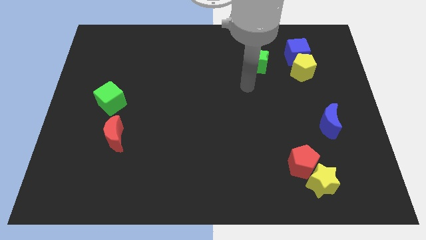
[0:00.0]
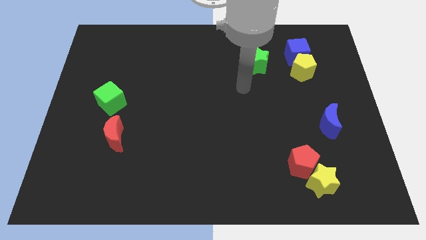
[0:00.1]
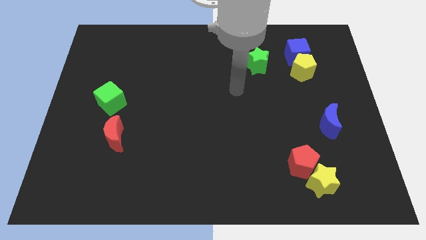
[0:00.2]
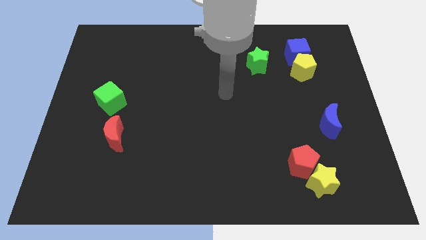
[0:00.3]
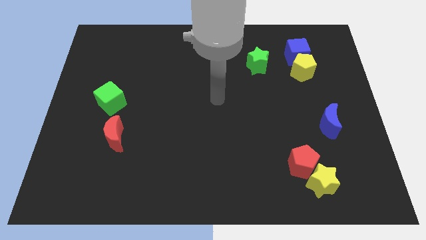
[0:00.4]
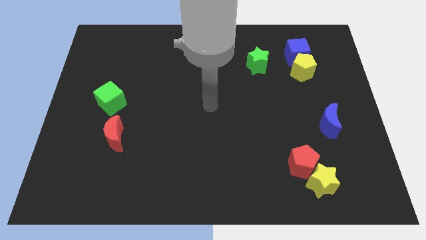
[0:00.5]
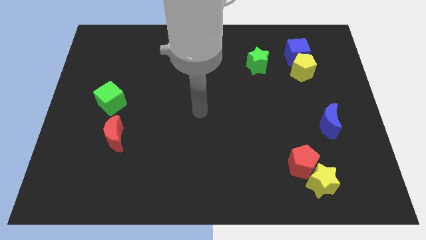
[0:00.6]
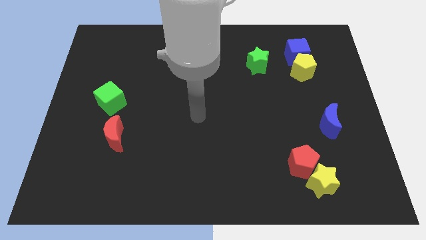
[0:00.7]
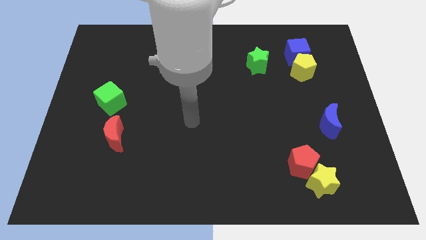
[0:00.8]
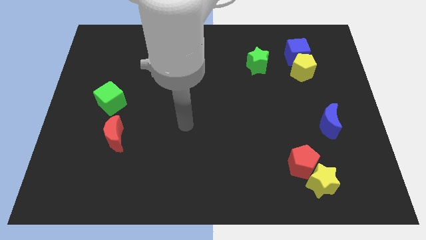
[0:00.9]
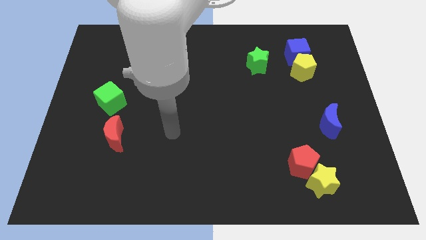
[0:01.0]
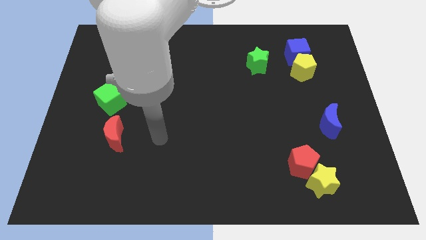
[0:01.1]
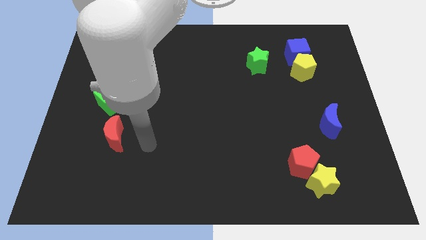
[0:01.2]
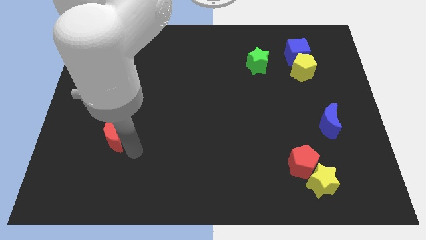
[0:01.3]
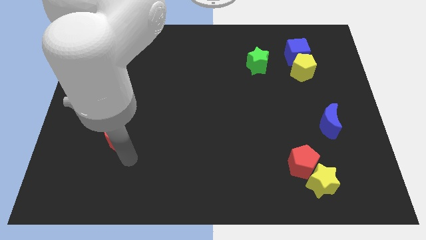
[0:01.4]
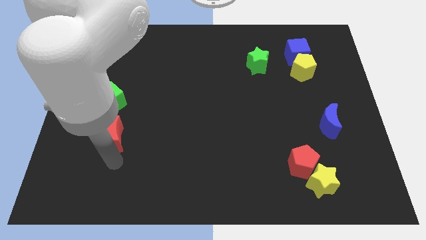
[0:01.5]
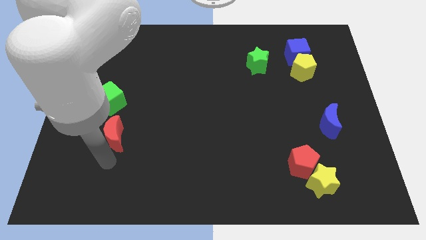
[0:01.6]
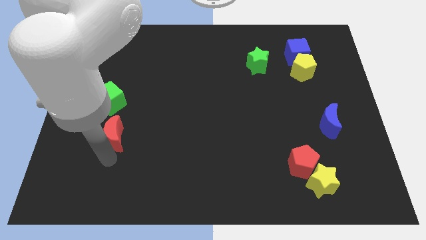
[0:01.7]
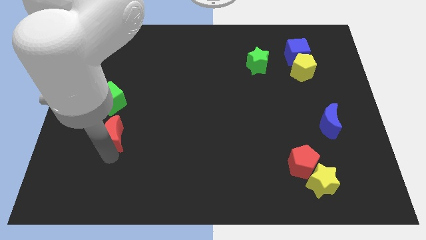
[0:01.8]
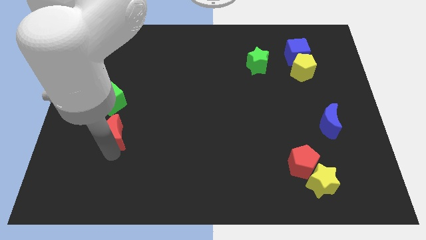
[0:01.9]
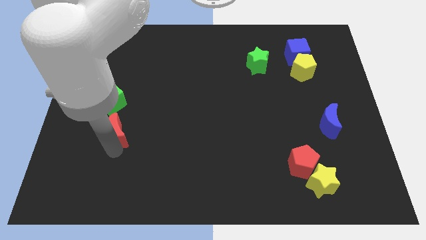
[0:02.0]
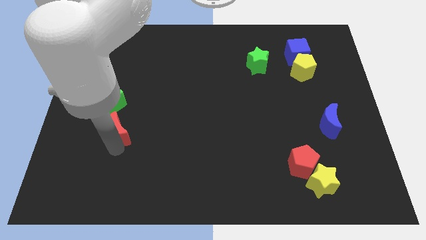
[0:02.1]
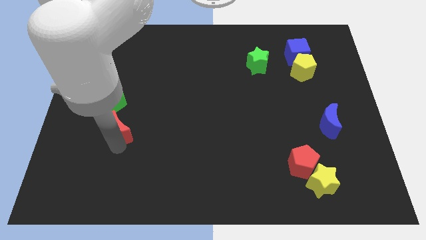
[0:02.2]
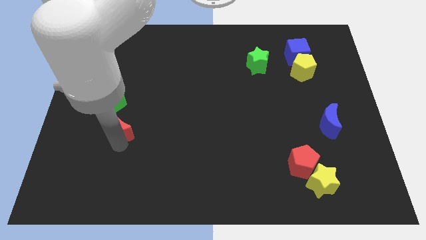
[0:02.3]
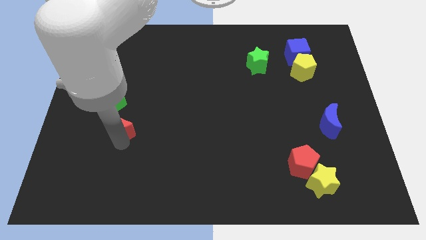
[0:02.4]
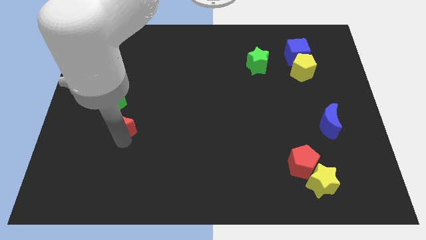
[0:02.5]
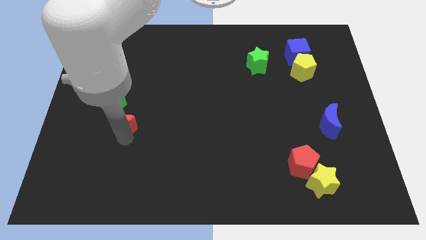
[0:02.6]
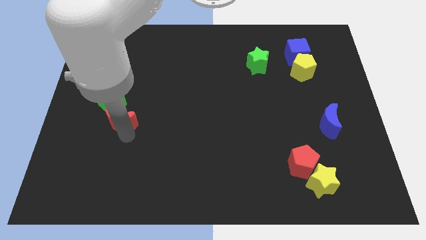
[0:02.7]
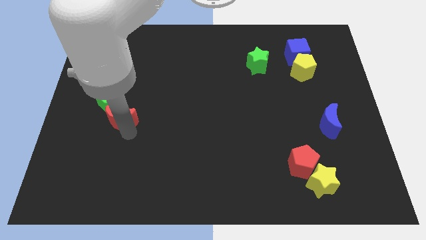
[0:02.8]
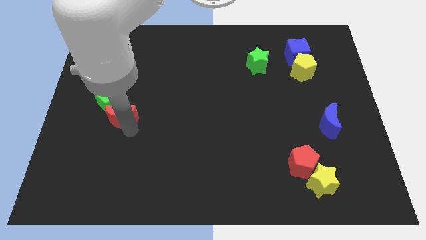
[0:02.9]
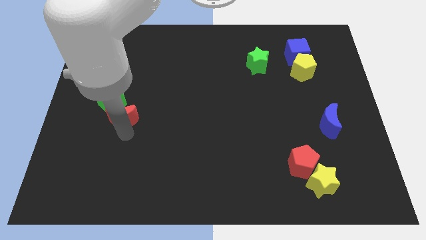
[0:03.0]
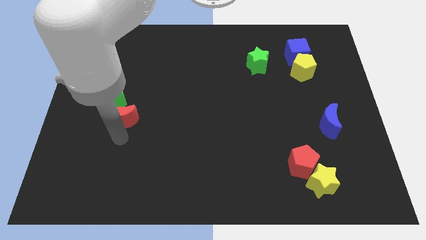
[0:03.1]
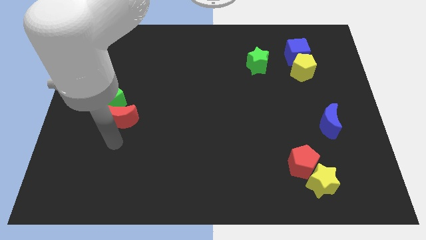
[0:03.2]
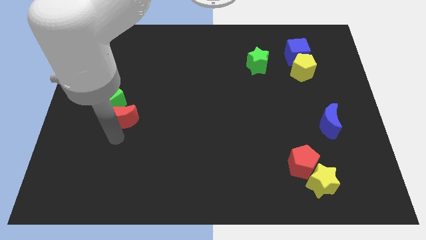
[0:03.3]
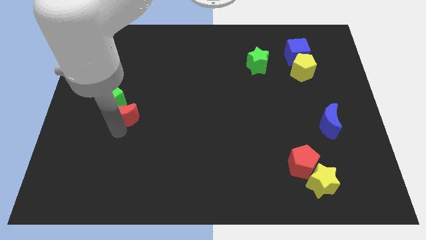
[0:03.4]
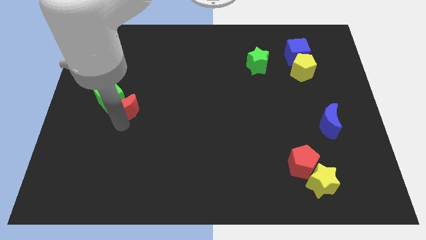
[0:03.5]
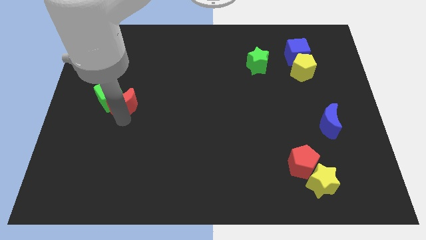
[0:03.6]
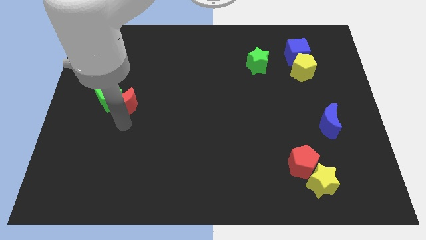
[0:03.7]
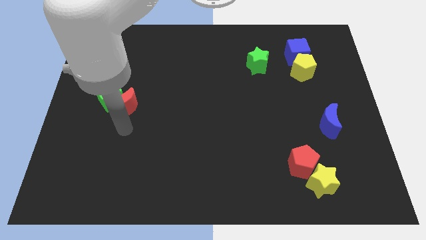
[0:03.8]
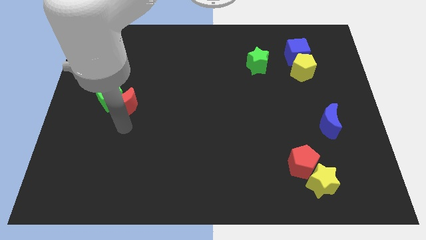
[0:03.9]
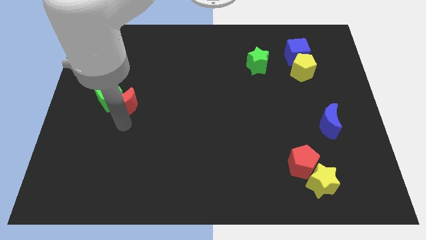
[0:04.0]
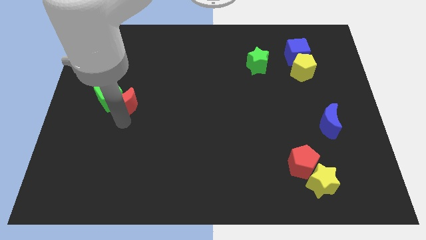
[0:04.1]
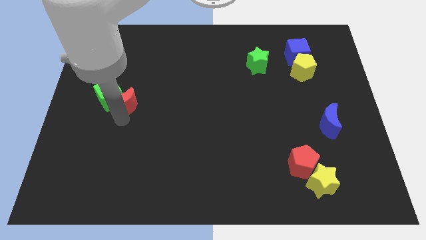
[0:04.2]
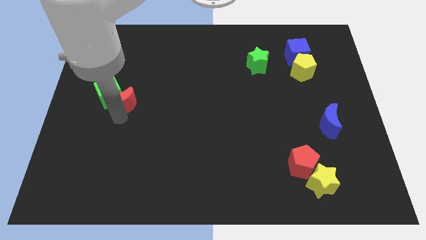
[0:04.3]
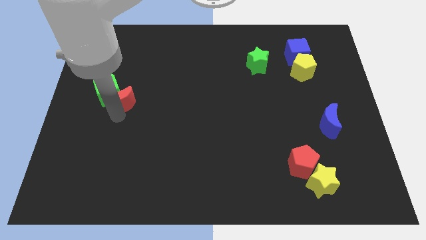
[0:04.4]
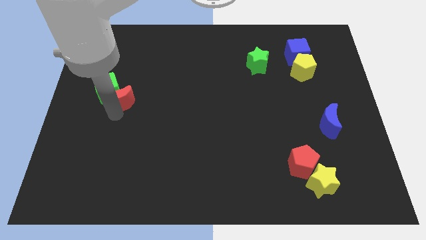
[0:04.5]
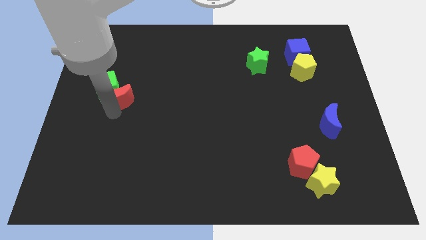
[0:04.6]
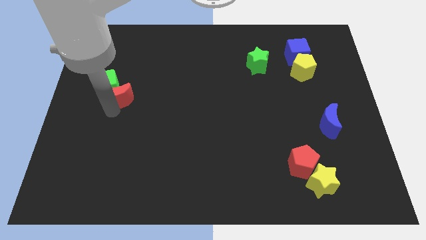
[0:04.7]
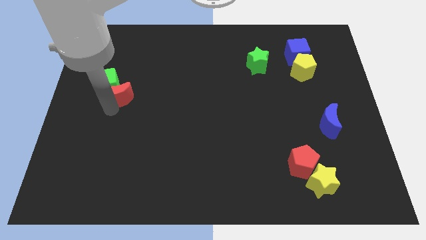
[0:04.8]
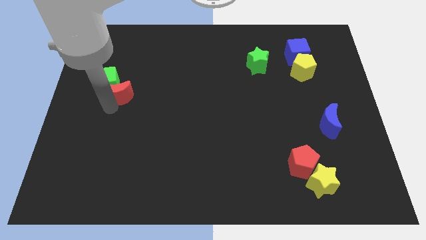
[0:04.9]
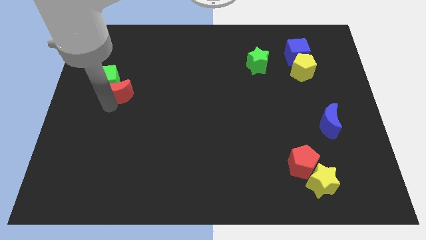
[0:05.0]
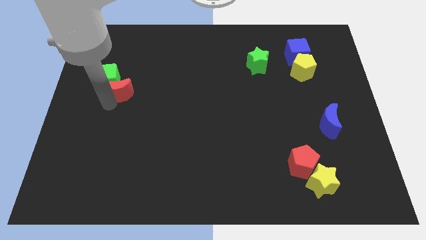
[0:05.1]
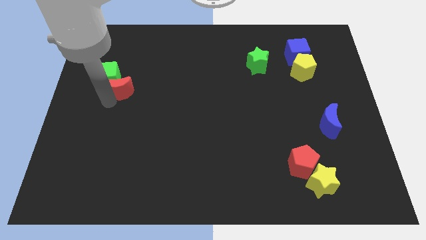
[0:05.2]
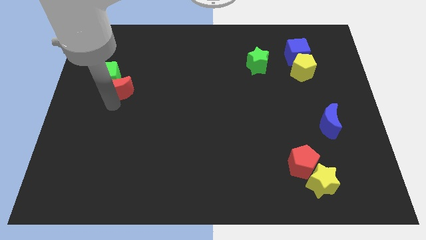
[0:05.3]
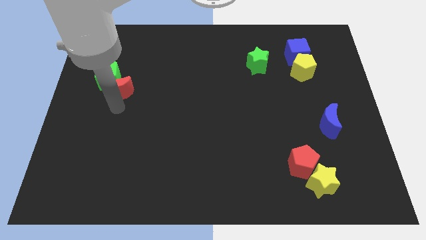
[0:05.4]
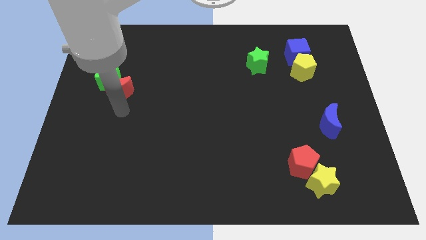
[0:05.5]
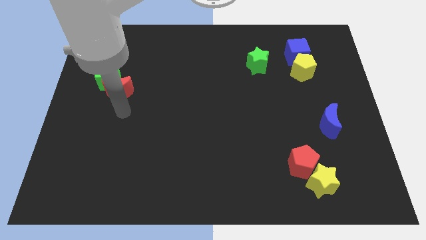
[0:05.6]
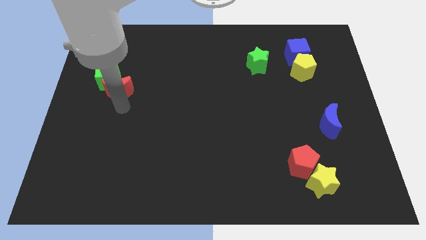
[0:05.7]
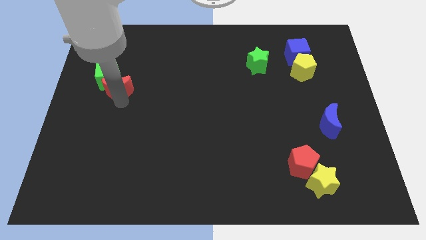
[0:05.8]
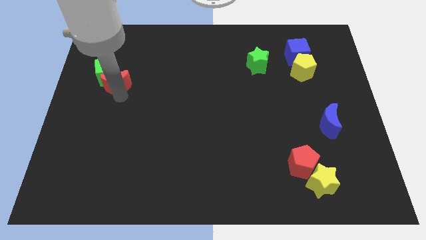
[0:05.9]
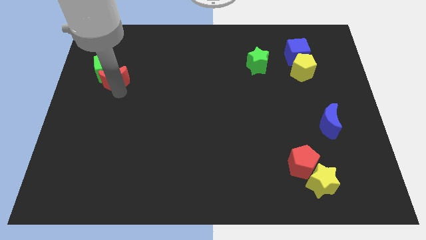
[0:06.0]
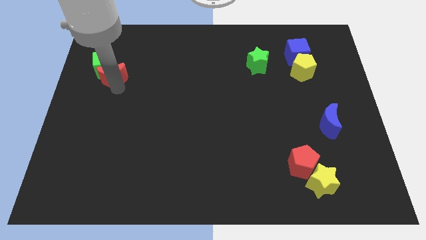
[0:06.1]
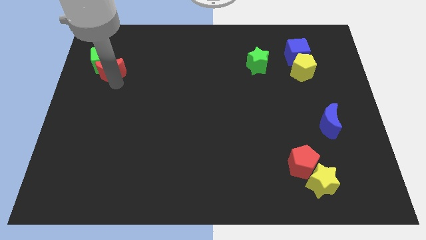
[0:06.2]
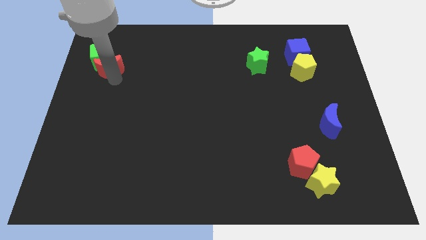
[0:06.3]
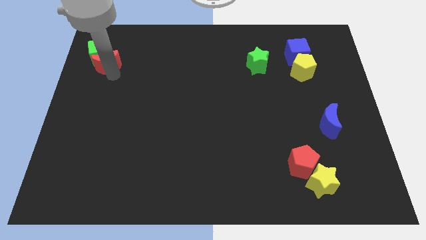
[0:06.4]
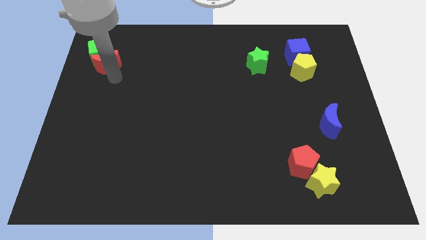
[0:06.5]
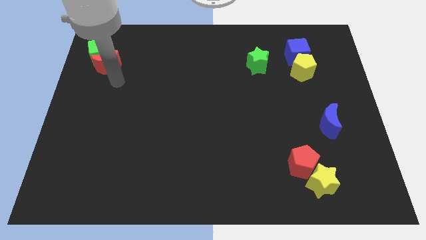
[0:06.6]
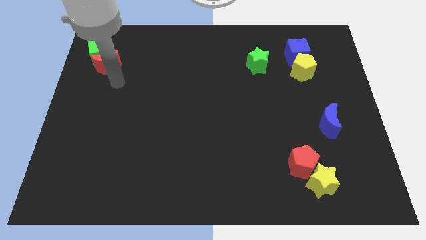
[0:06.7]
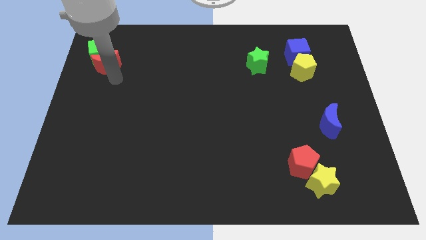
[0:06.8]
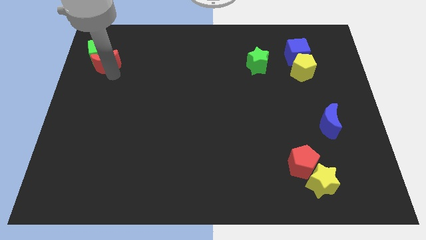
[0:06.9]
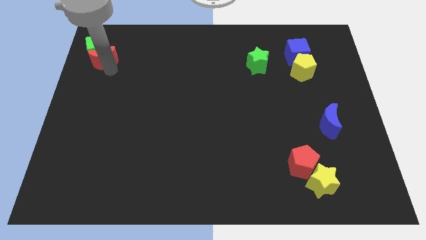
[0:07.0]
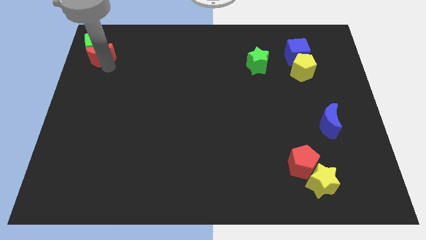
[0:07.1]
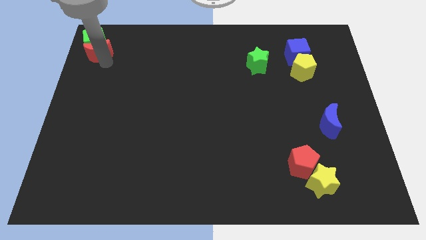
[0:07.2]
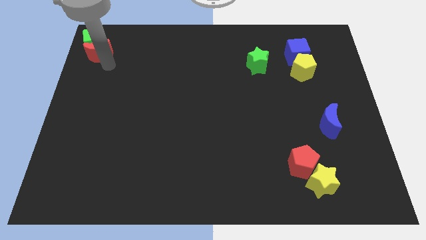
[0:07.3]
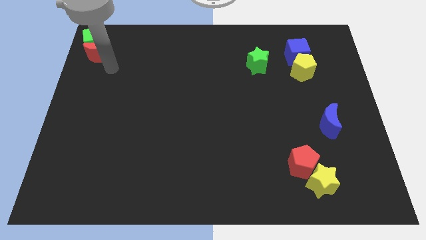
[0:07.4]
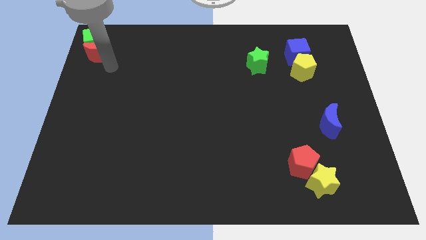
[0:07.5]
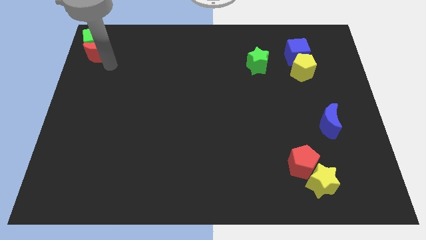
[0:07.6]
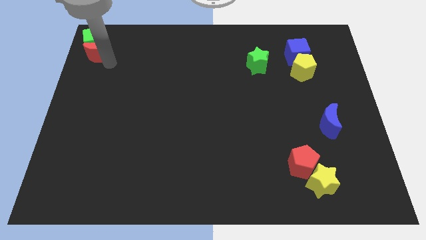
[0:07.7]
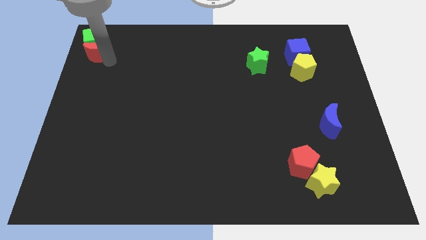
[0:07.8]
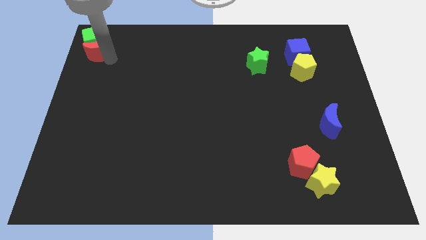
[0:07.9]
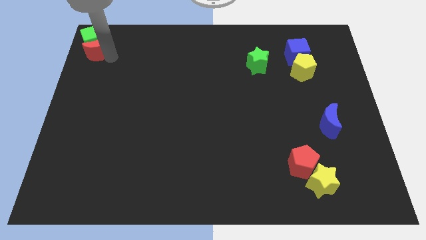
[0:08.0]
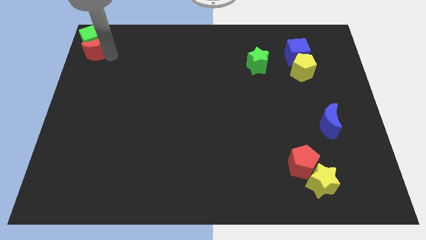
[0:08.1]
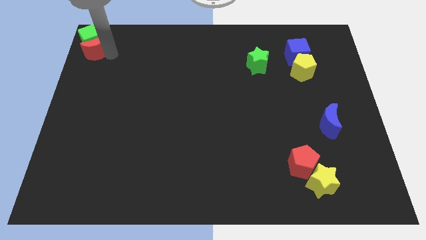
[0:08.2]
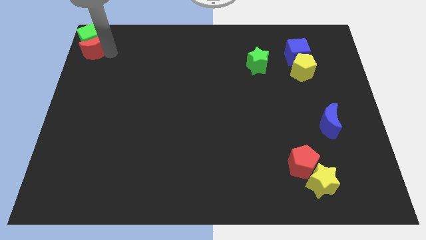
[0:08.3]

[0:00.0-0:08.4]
put the red moon to the top left corner
